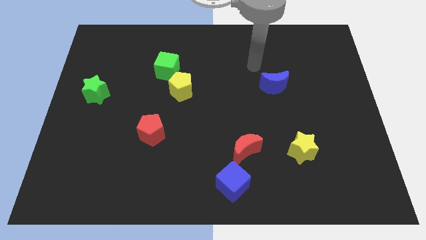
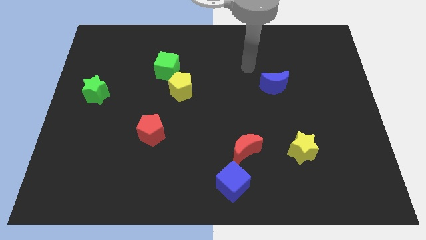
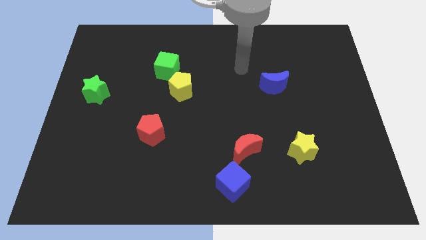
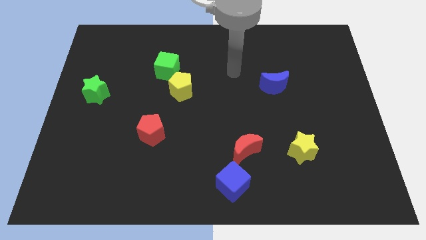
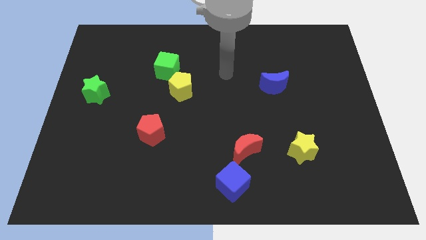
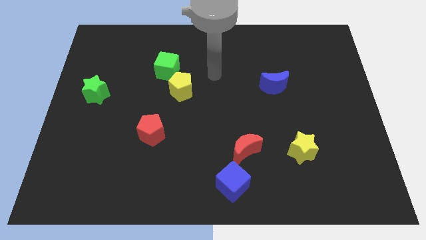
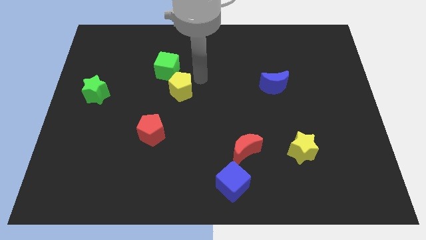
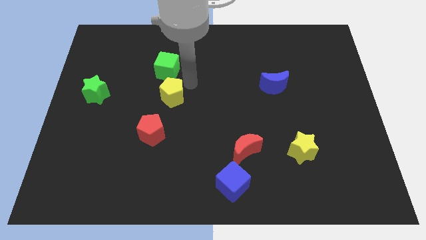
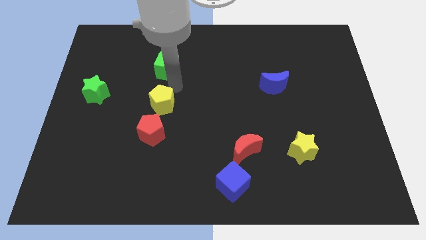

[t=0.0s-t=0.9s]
pull the green cube apart from the yellow pentagon

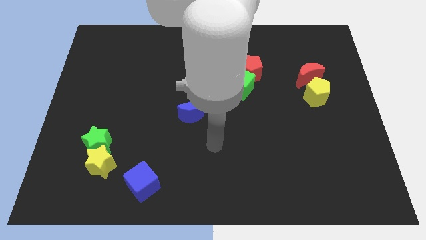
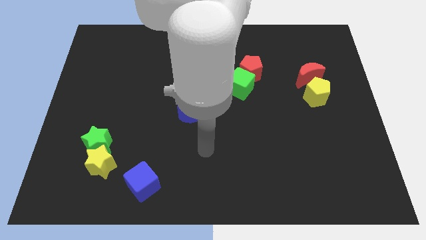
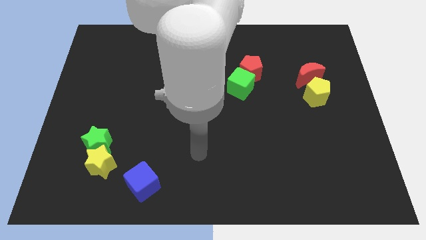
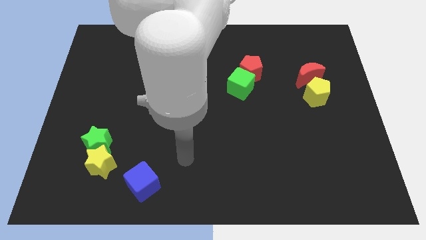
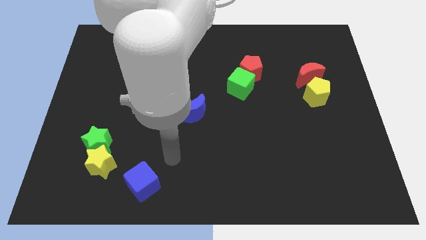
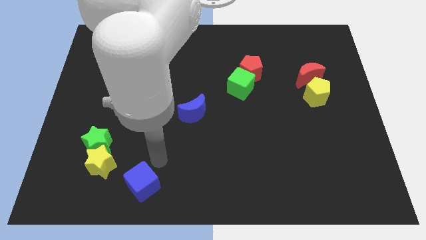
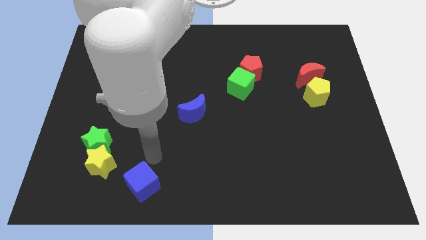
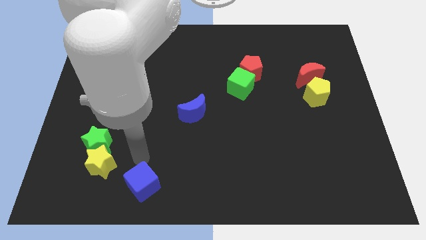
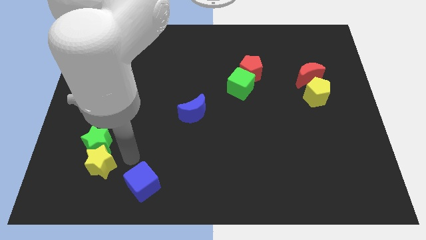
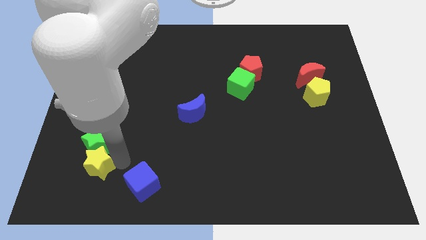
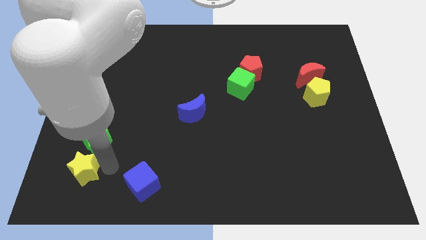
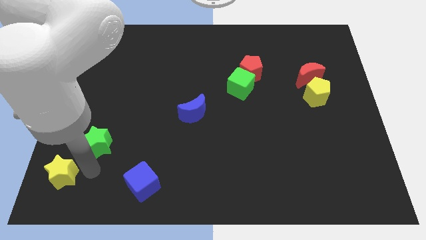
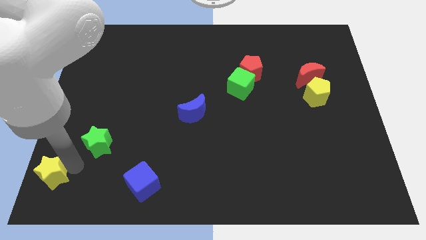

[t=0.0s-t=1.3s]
separate the green star from the yellow star

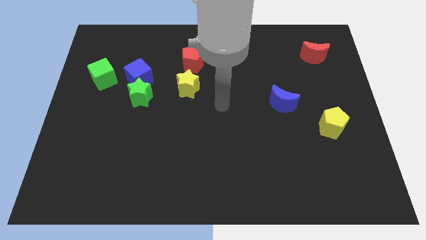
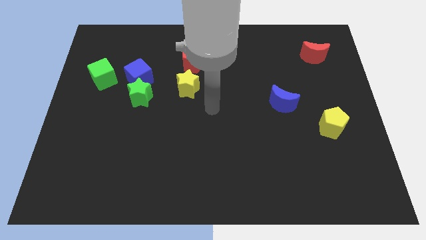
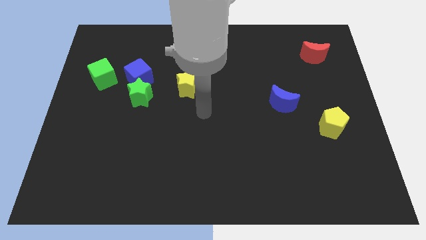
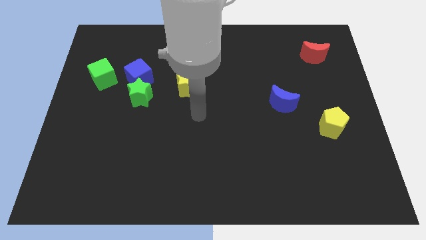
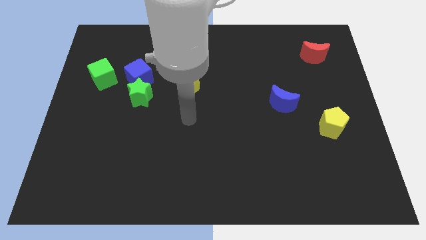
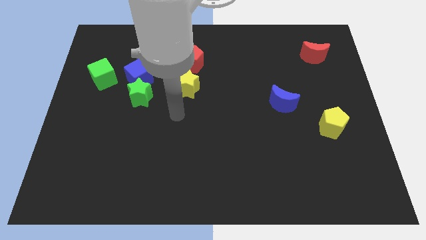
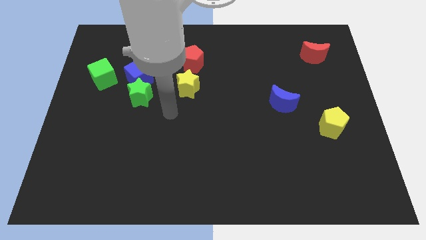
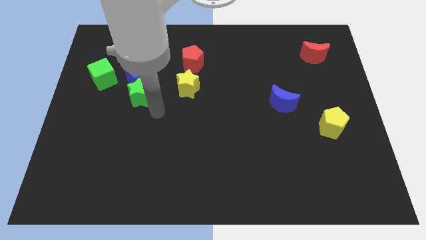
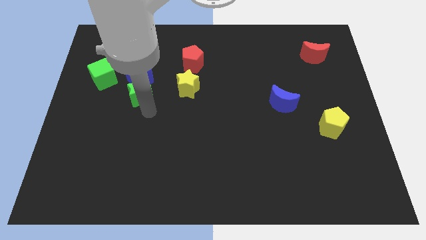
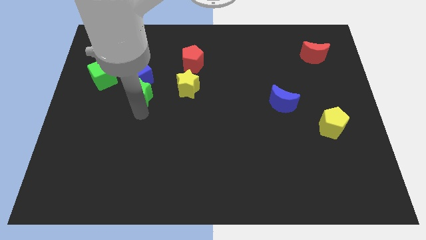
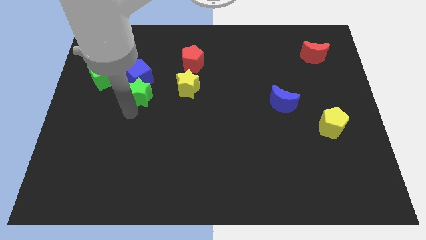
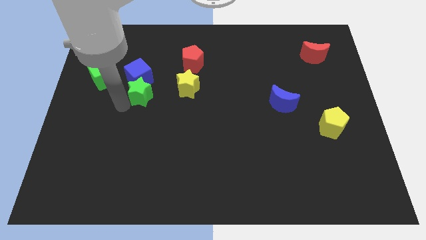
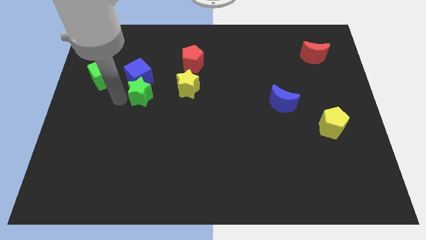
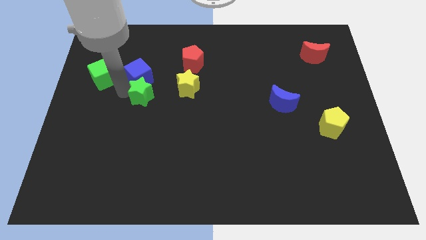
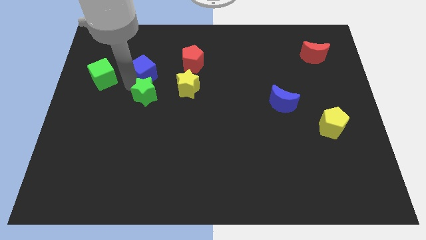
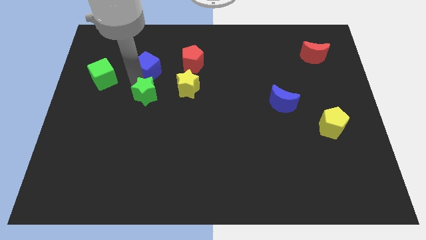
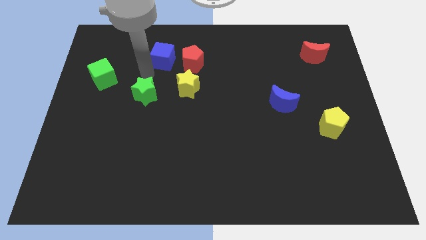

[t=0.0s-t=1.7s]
move the green star away from the blue cube

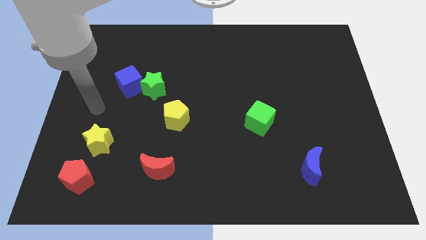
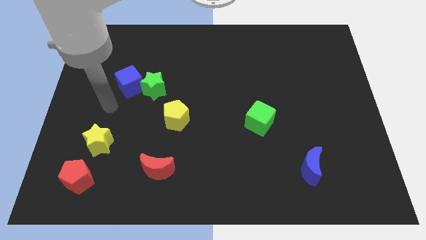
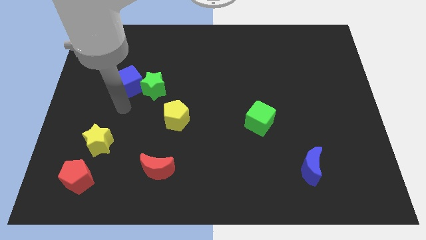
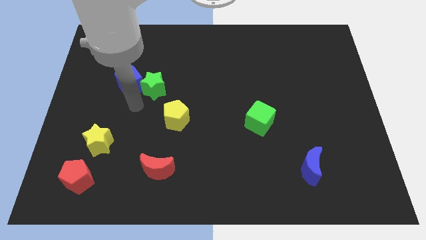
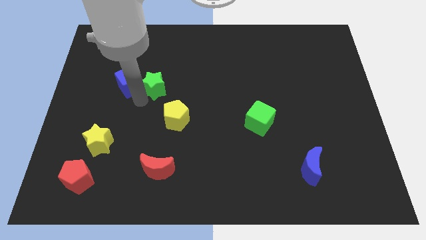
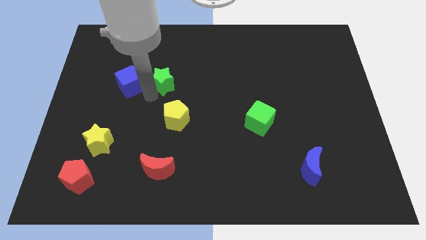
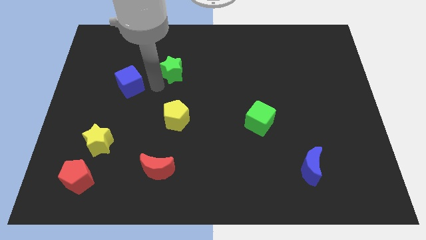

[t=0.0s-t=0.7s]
move the blue cube away from the green star

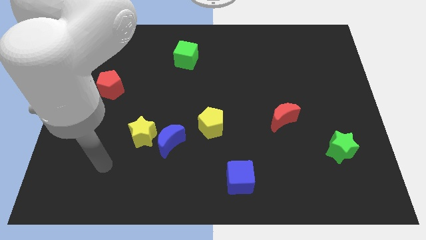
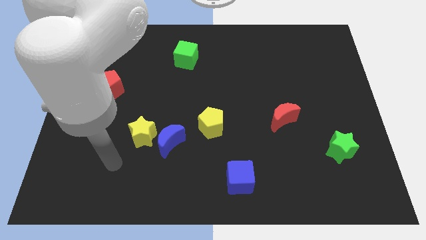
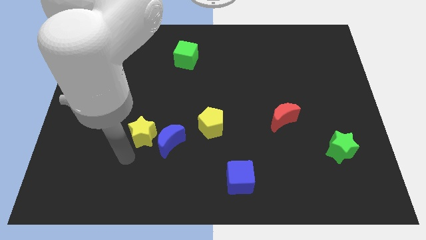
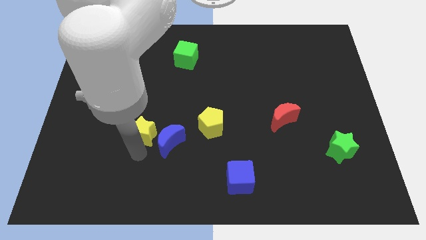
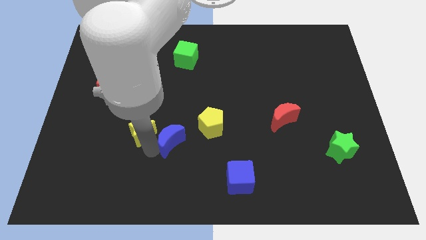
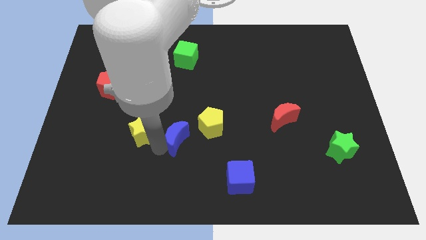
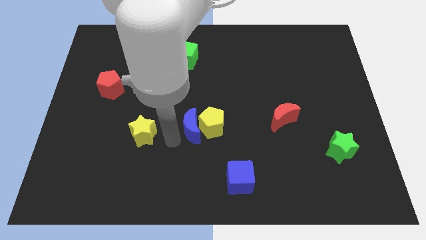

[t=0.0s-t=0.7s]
pull the yellow star apart from the blue moon

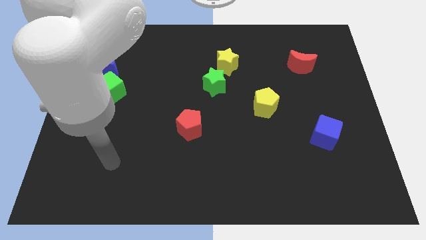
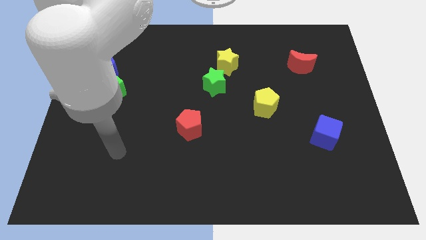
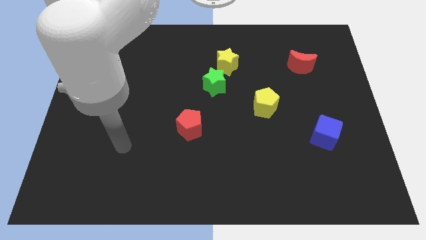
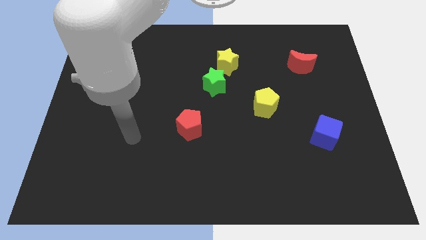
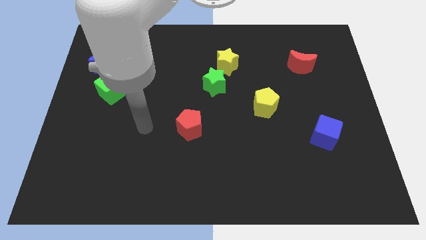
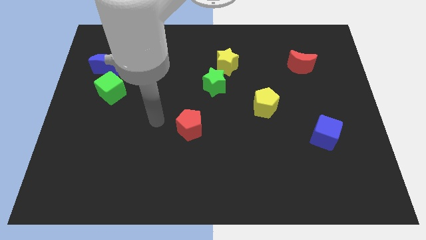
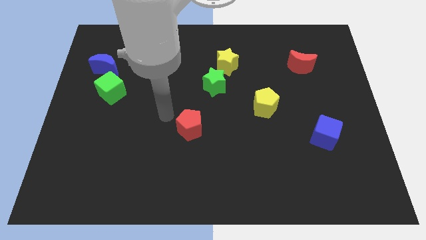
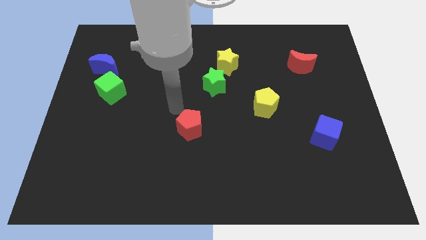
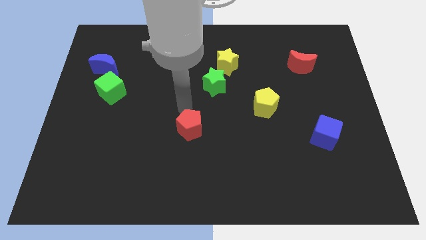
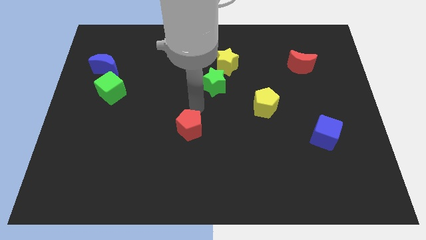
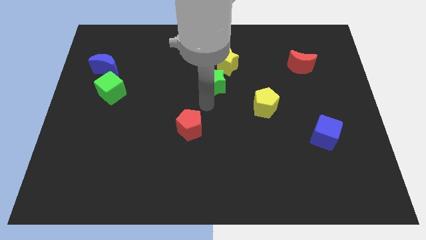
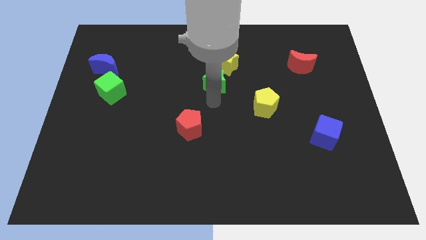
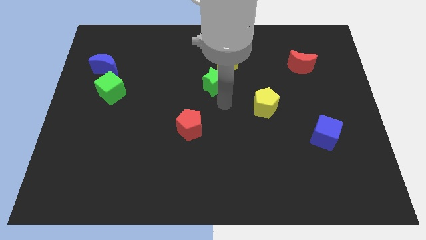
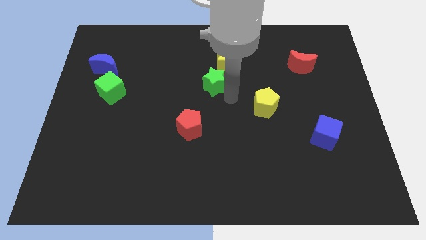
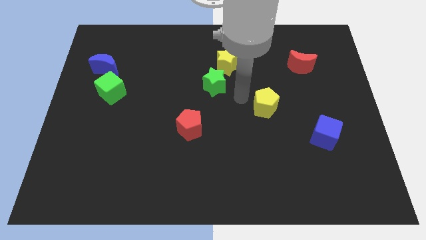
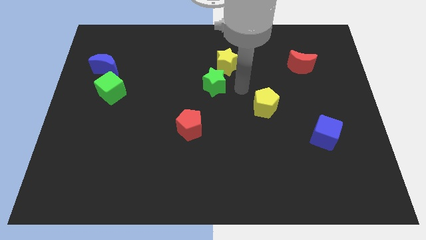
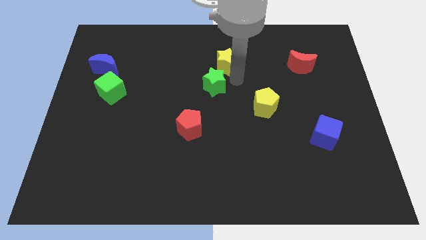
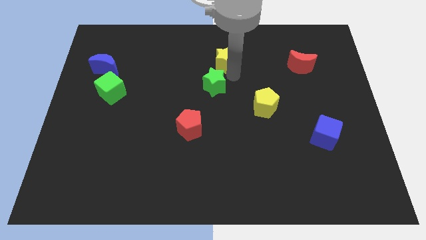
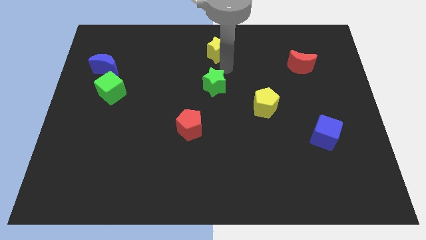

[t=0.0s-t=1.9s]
pull the green star apart from the yellow star

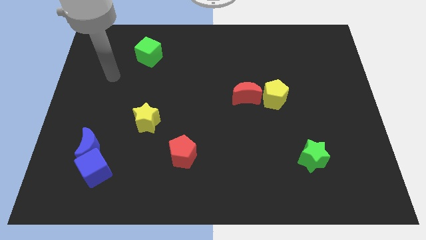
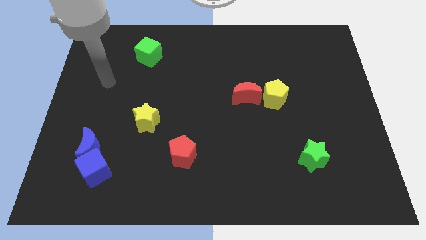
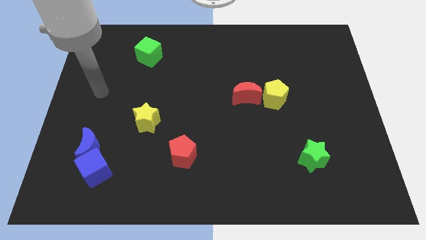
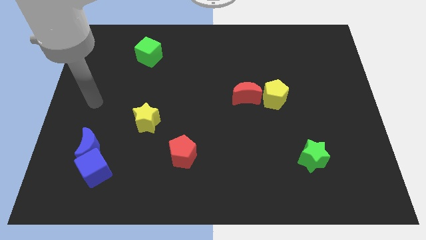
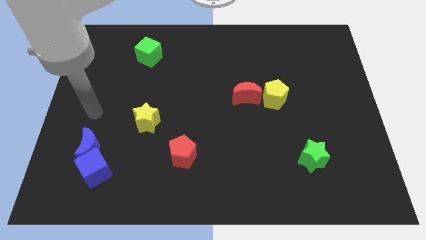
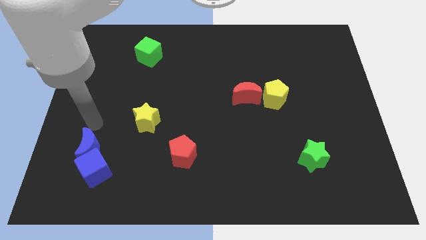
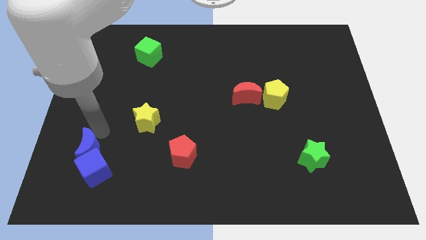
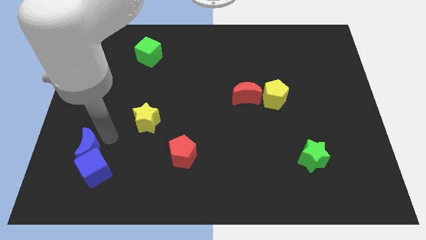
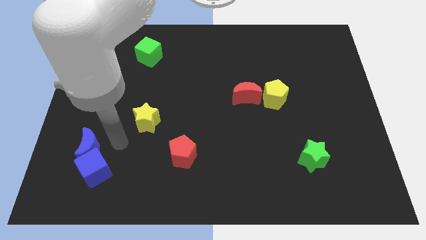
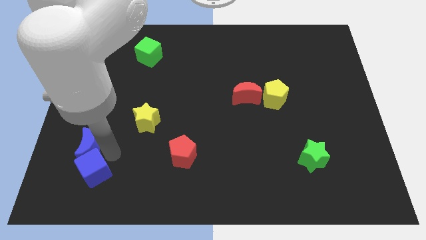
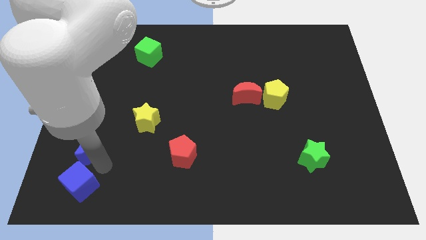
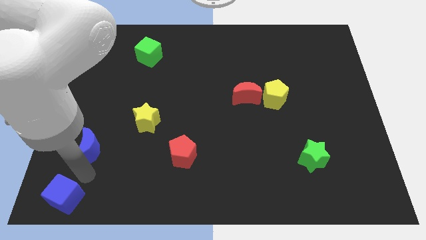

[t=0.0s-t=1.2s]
separate the blue moon from the blue cube

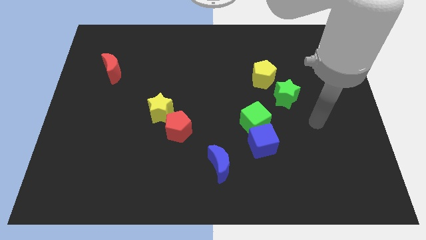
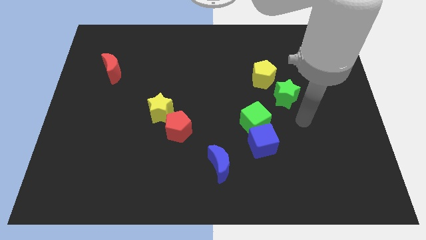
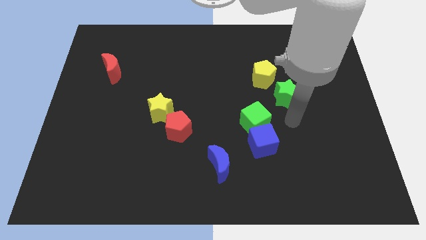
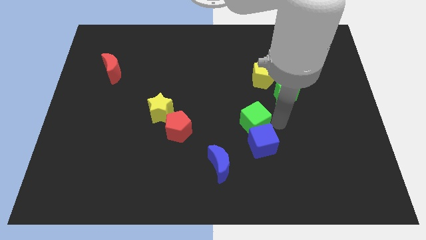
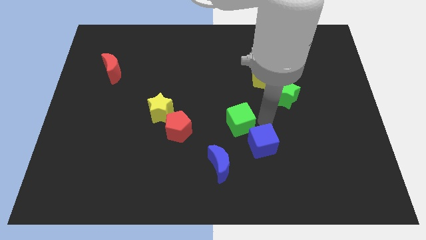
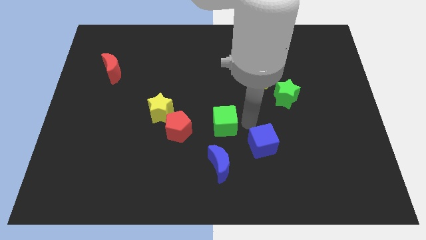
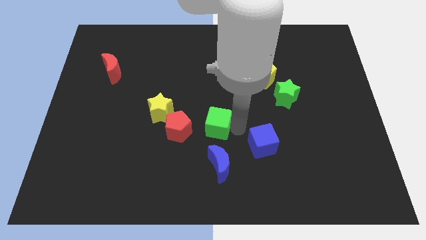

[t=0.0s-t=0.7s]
pull the blue cube apart from the green cube

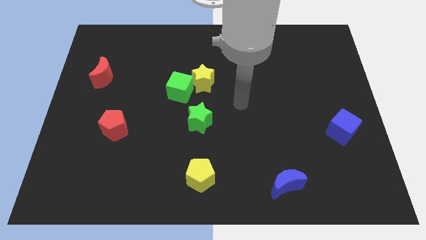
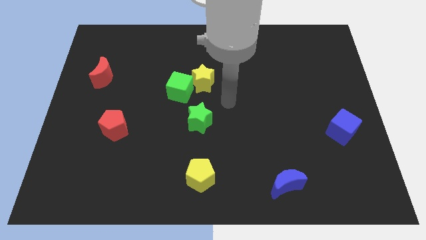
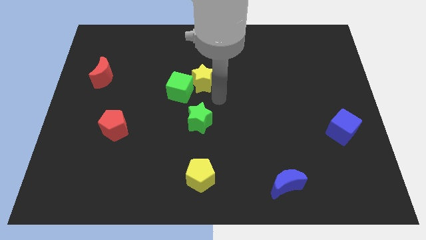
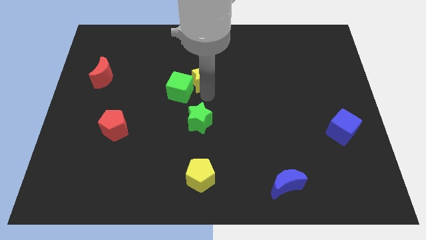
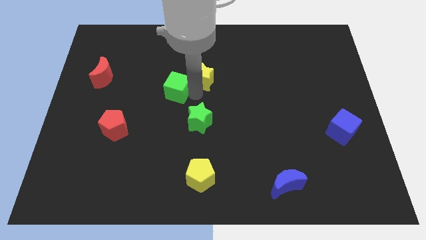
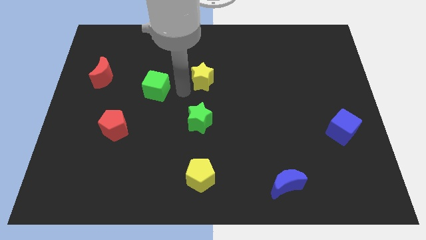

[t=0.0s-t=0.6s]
separate the yellow star from the green cube
